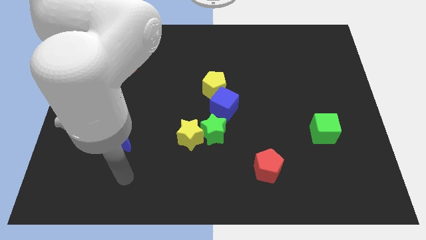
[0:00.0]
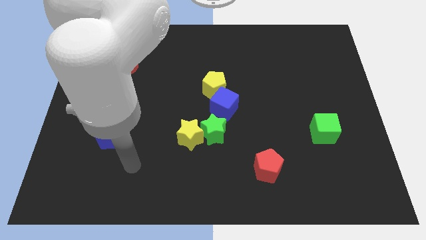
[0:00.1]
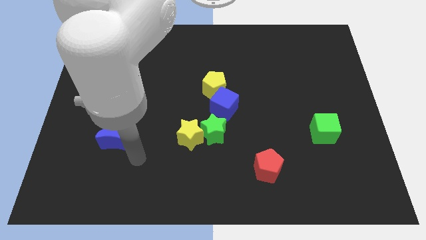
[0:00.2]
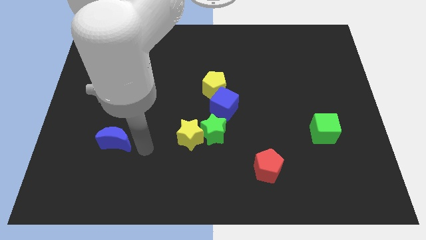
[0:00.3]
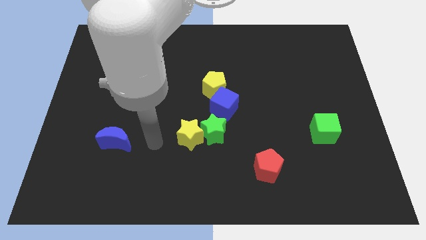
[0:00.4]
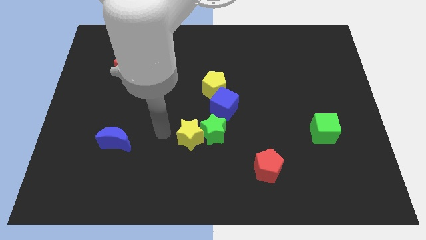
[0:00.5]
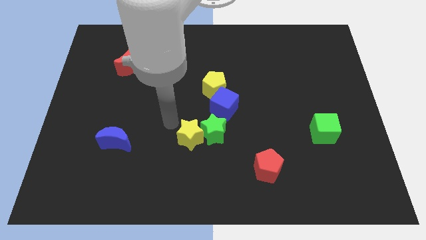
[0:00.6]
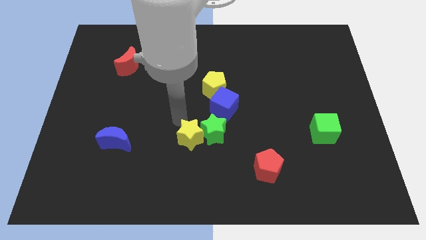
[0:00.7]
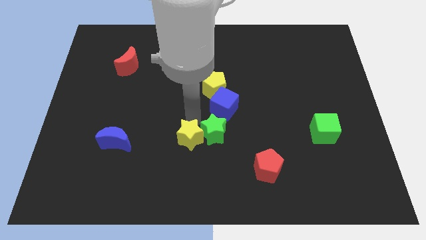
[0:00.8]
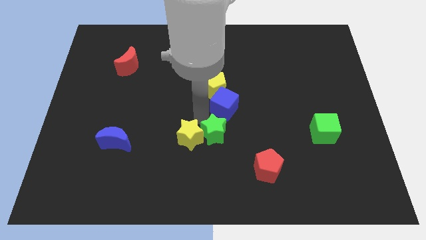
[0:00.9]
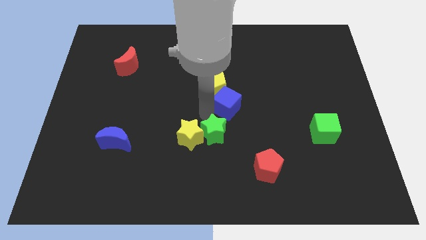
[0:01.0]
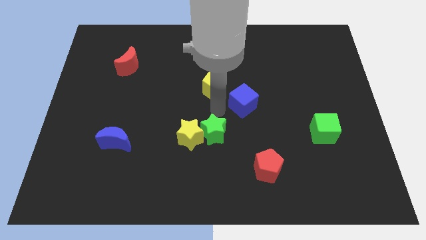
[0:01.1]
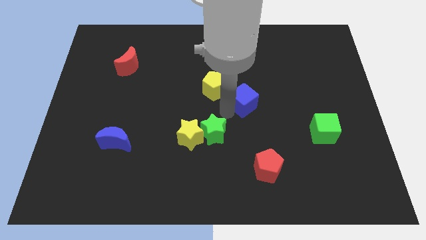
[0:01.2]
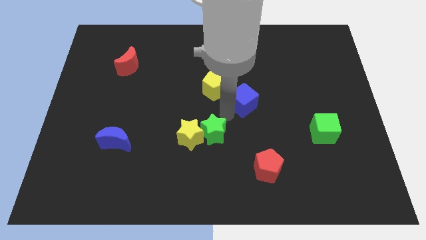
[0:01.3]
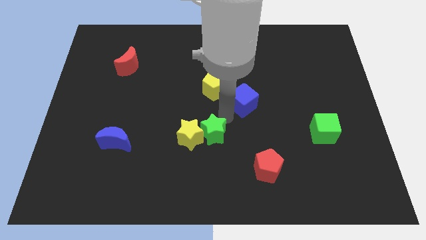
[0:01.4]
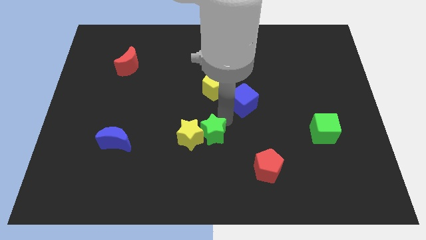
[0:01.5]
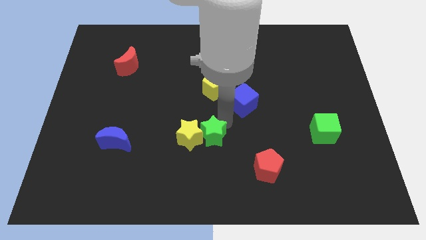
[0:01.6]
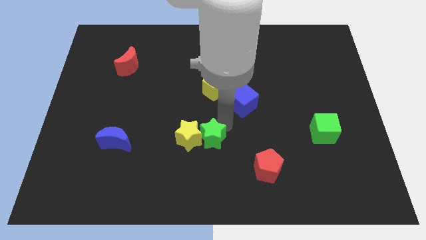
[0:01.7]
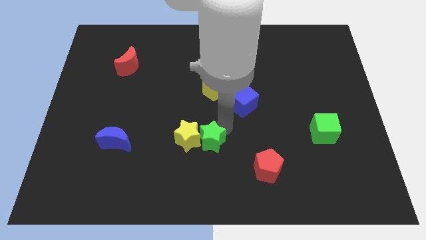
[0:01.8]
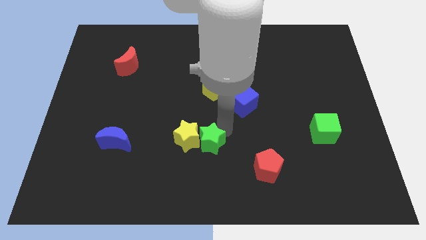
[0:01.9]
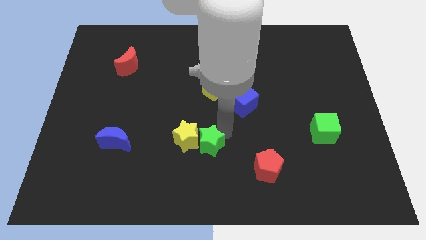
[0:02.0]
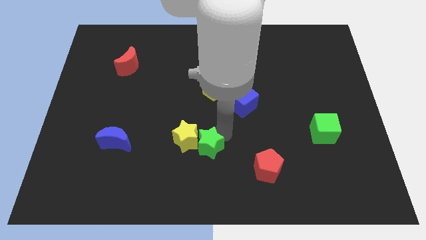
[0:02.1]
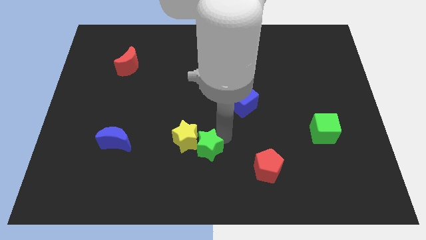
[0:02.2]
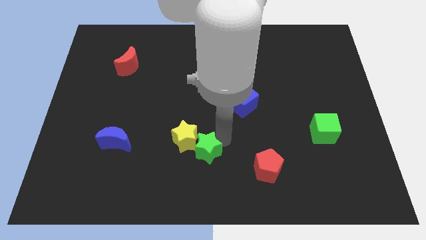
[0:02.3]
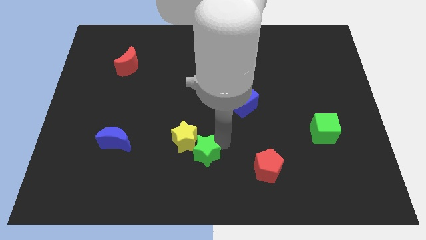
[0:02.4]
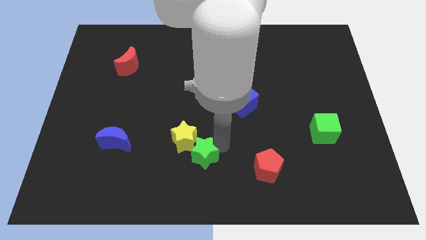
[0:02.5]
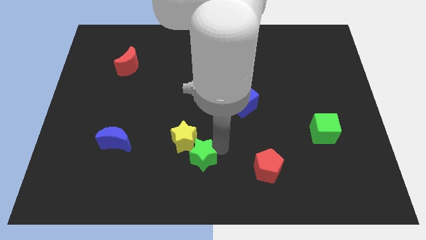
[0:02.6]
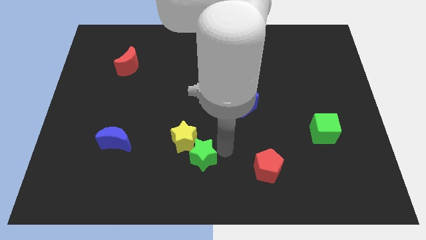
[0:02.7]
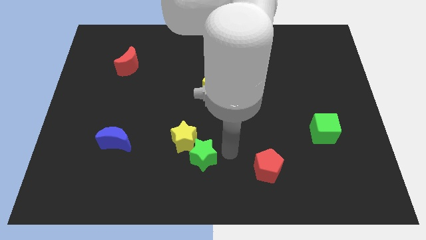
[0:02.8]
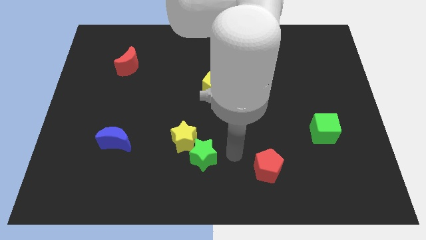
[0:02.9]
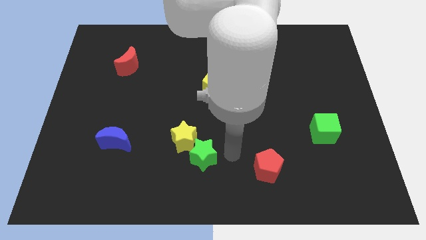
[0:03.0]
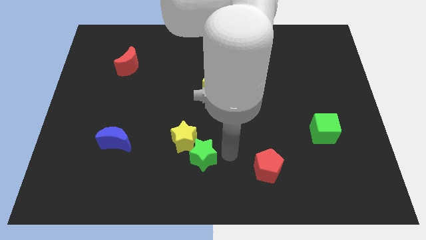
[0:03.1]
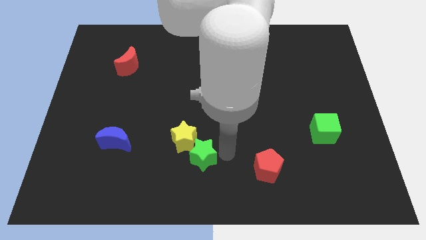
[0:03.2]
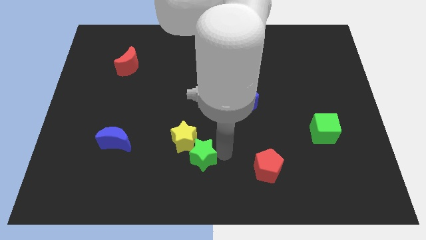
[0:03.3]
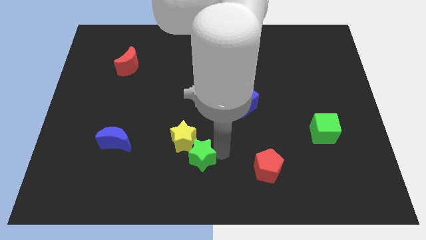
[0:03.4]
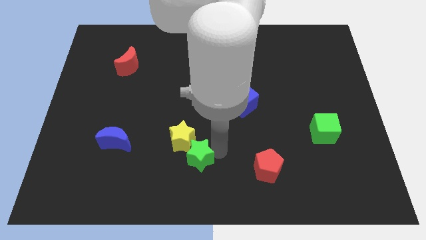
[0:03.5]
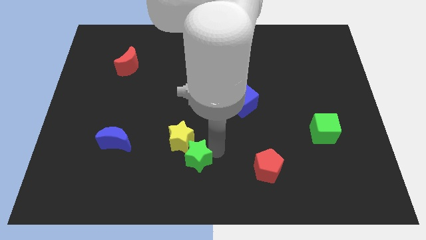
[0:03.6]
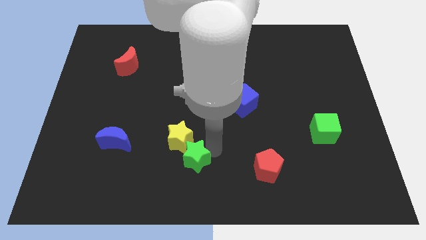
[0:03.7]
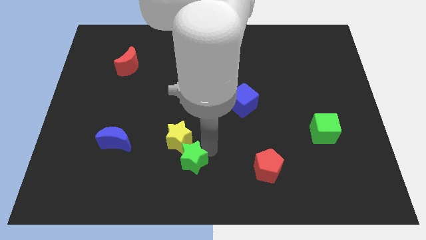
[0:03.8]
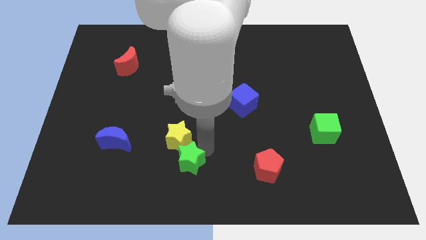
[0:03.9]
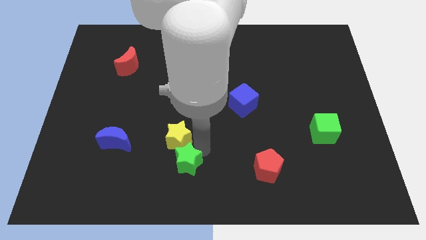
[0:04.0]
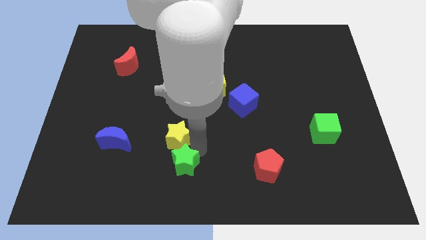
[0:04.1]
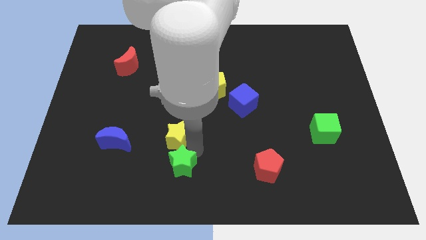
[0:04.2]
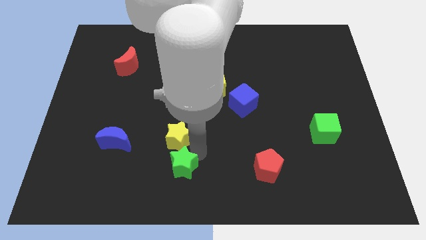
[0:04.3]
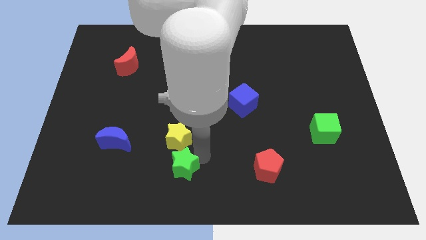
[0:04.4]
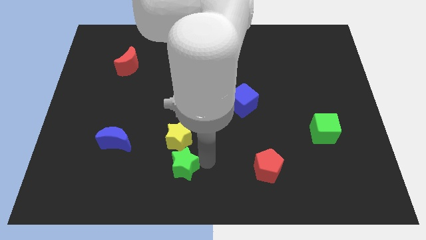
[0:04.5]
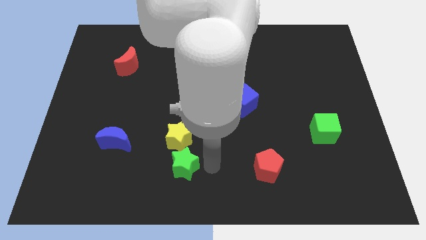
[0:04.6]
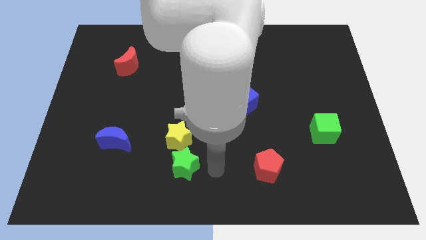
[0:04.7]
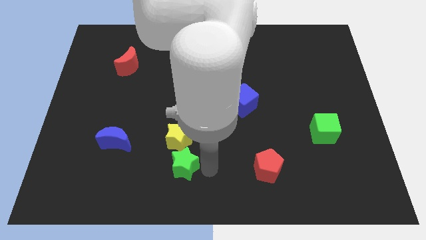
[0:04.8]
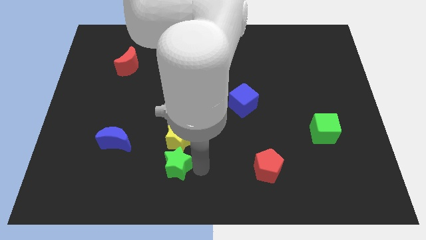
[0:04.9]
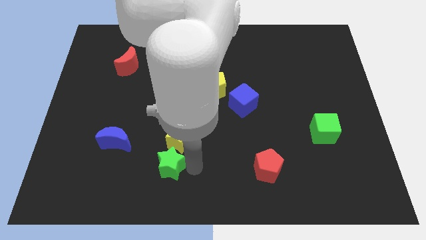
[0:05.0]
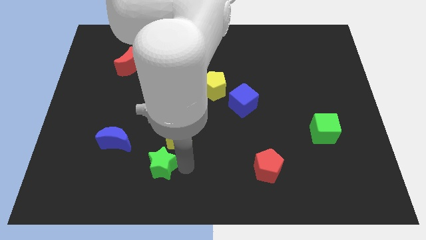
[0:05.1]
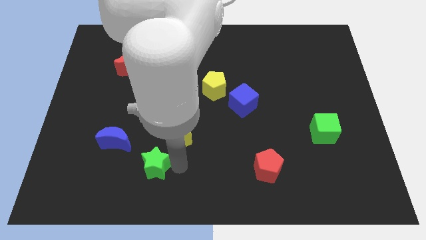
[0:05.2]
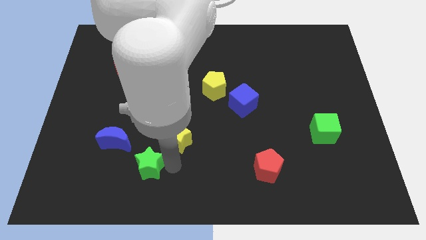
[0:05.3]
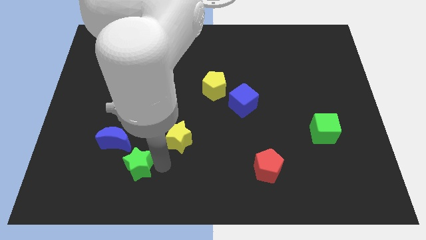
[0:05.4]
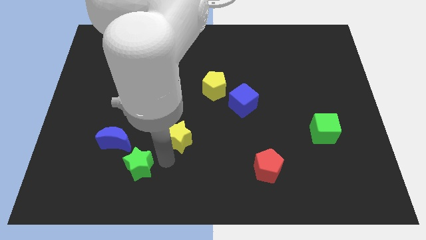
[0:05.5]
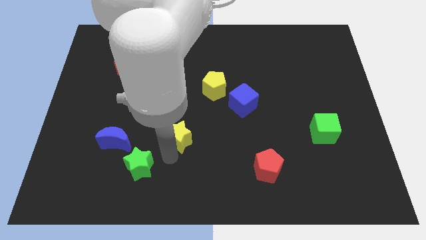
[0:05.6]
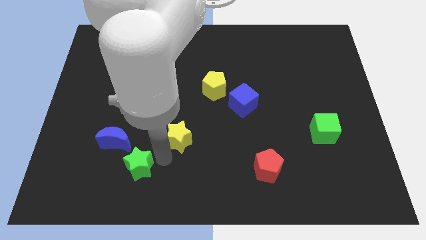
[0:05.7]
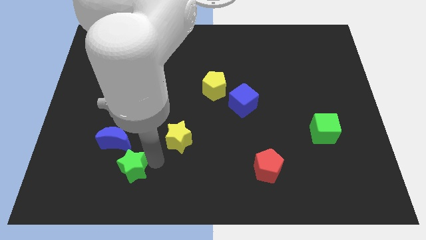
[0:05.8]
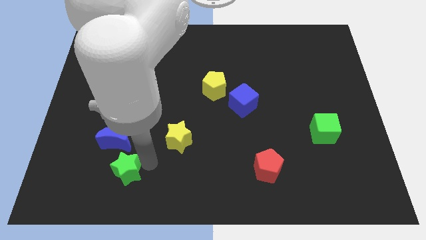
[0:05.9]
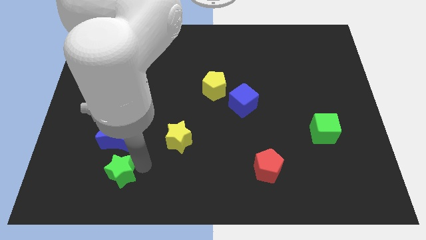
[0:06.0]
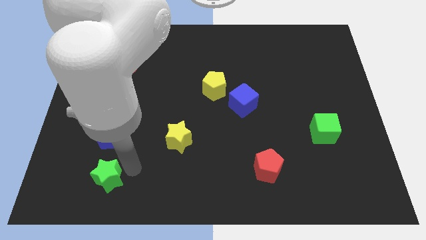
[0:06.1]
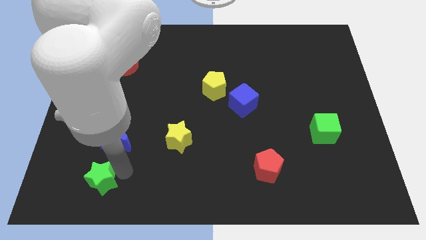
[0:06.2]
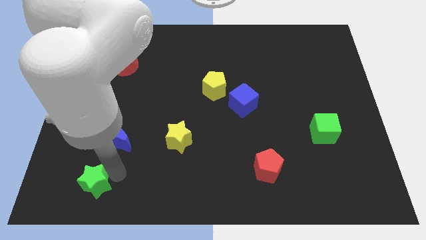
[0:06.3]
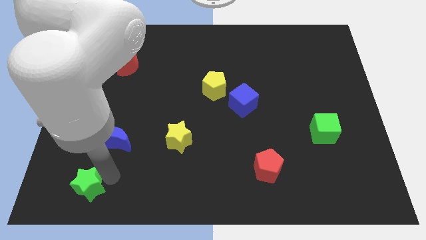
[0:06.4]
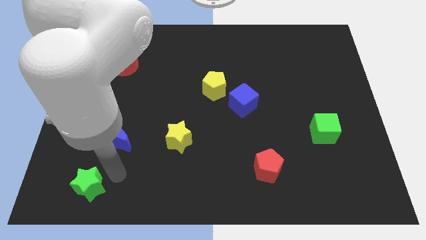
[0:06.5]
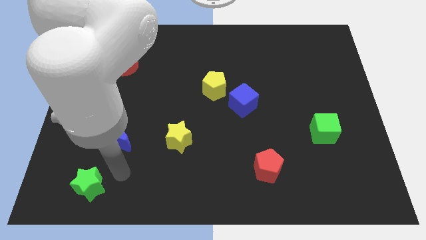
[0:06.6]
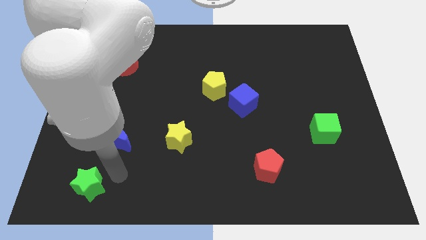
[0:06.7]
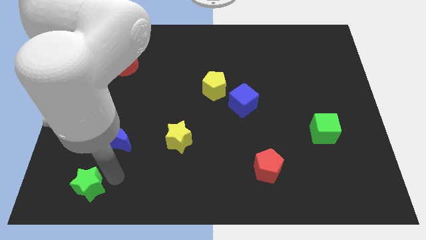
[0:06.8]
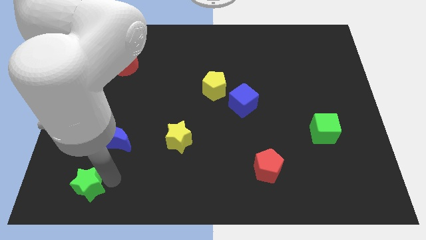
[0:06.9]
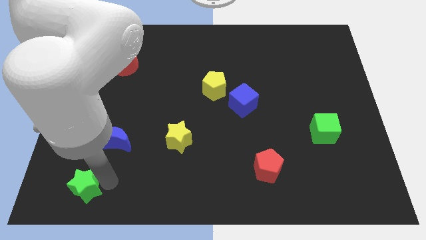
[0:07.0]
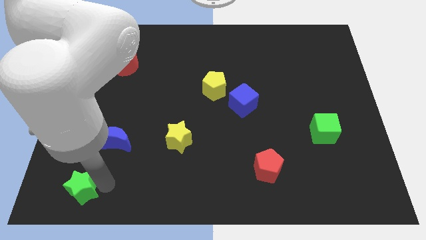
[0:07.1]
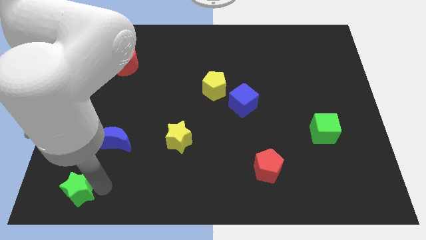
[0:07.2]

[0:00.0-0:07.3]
push the green star to the bottom left of the board
